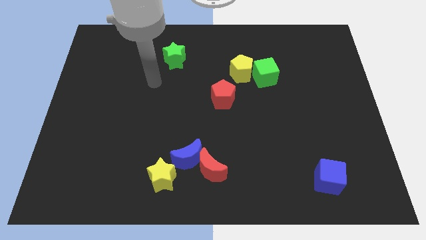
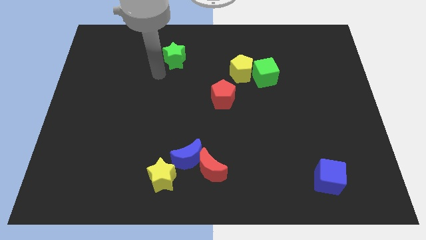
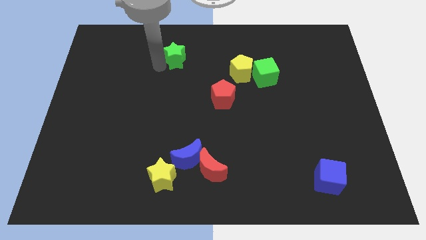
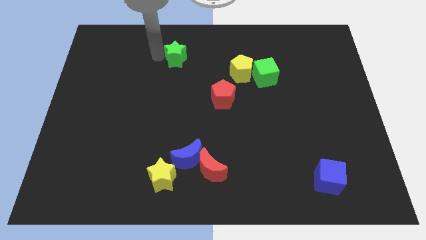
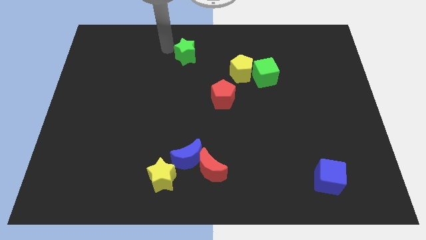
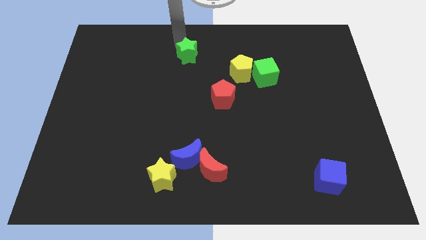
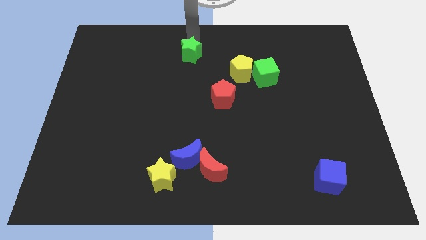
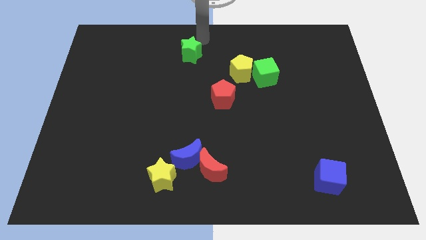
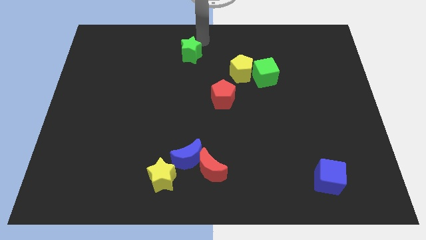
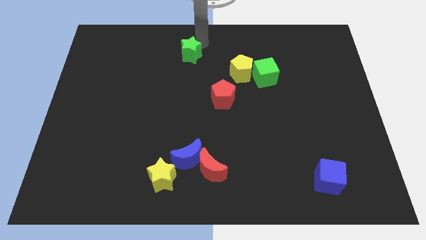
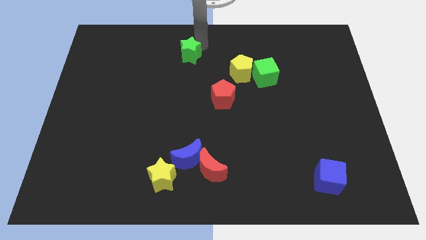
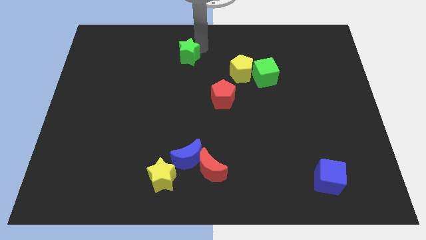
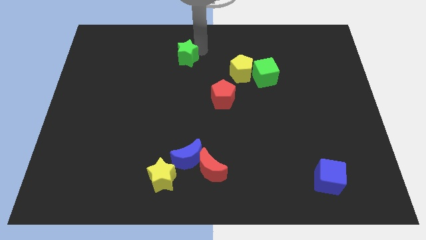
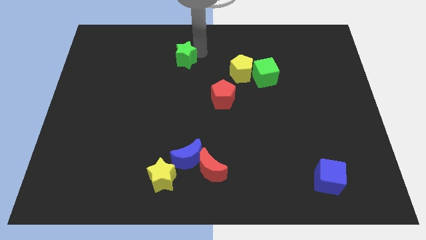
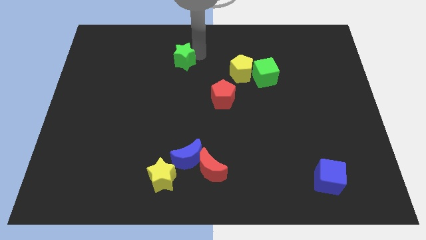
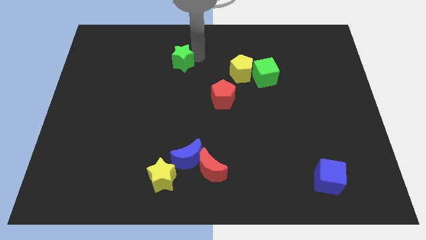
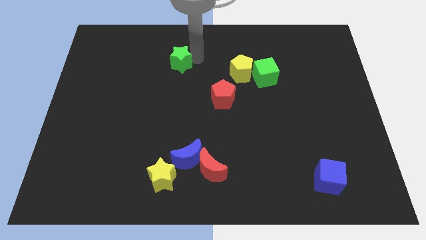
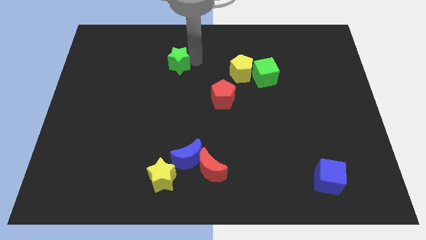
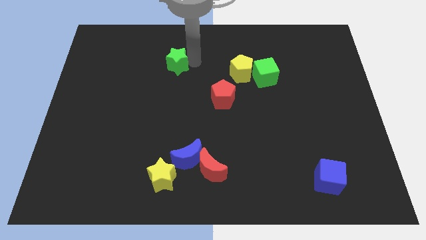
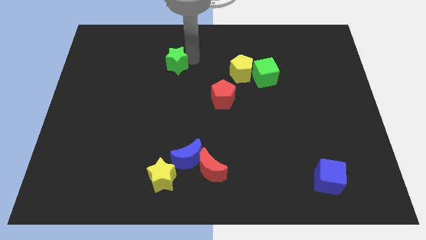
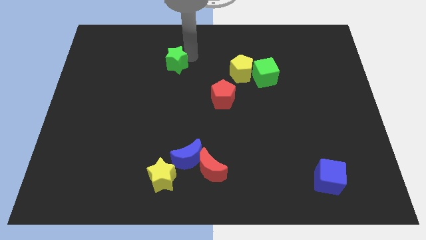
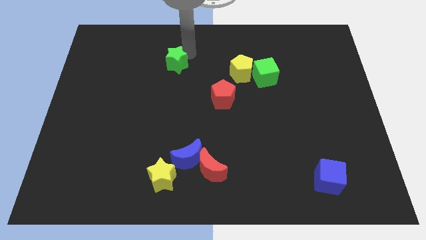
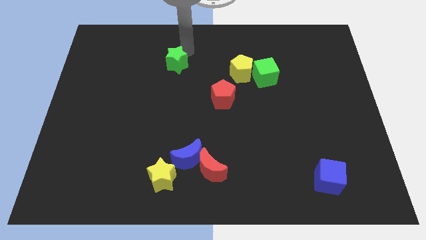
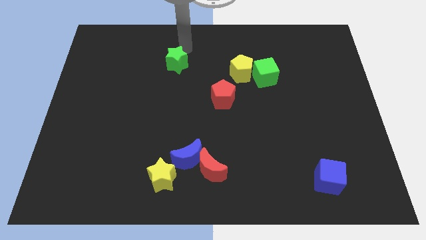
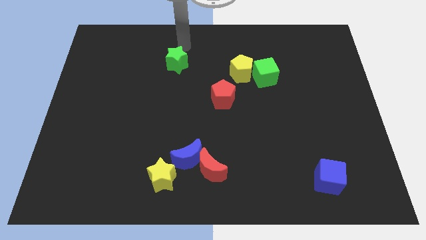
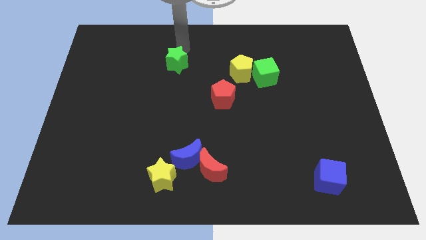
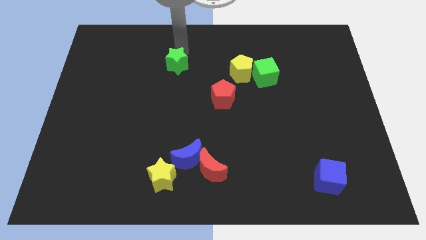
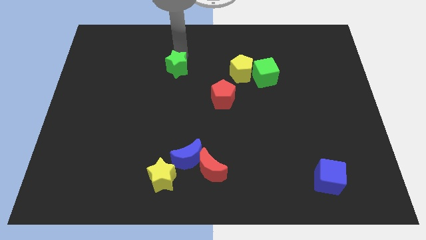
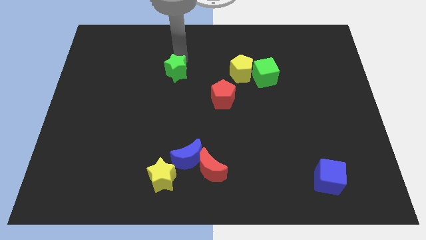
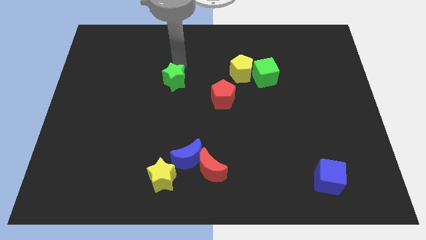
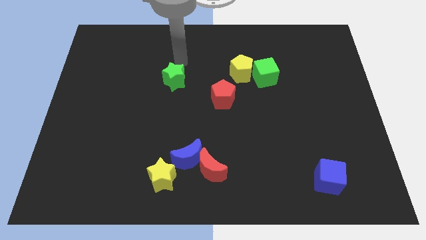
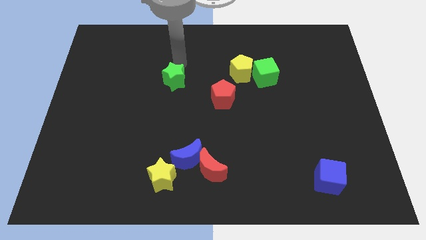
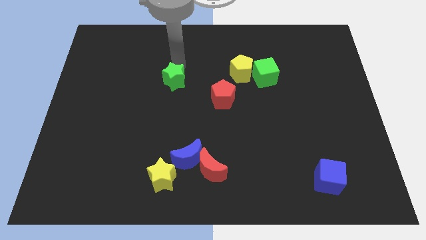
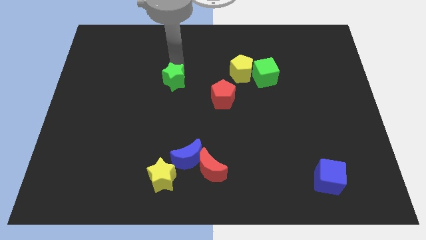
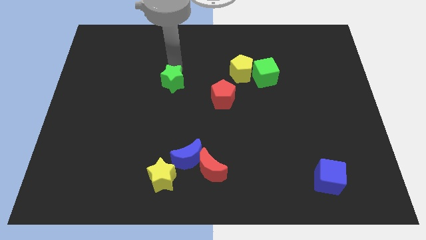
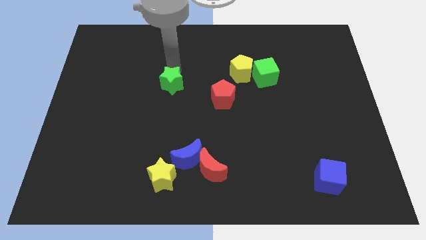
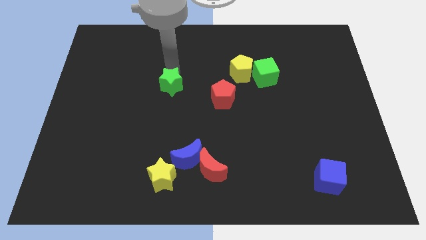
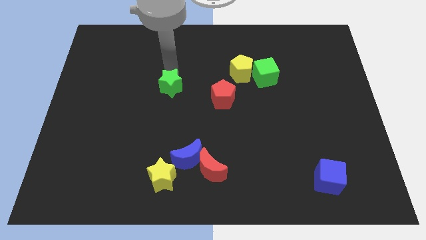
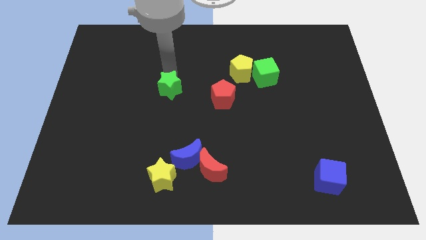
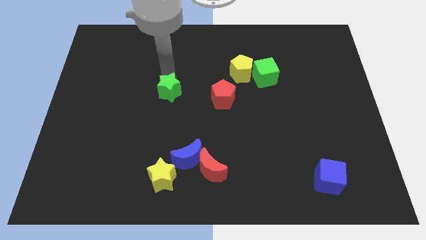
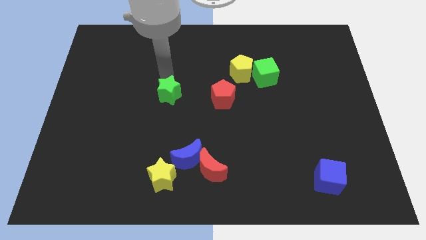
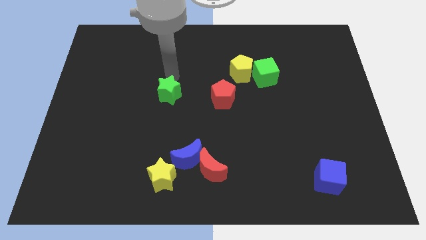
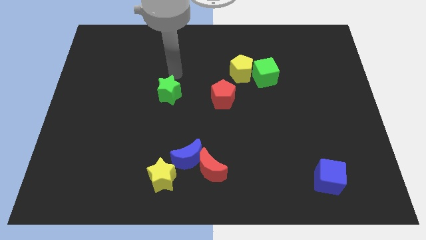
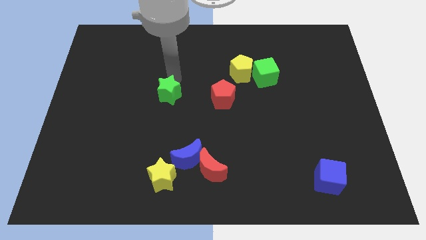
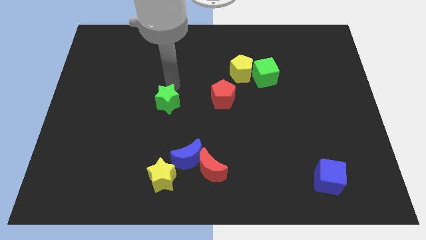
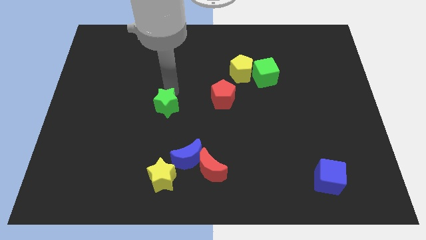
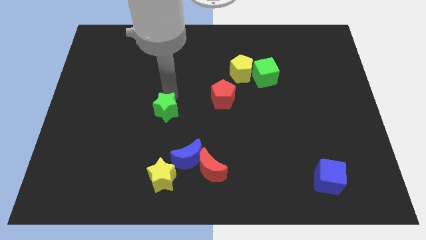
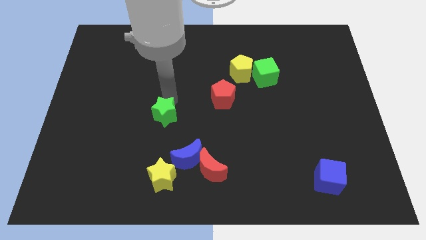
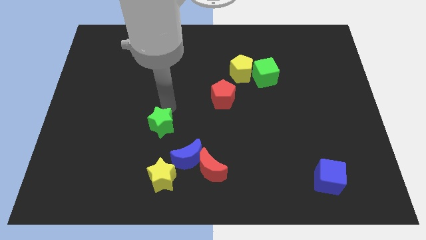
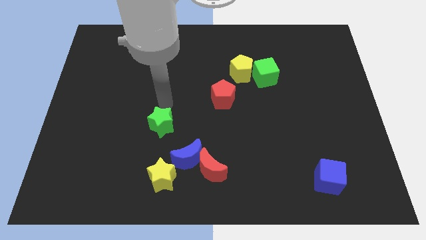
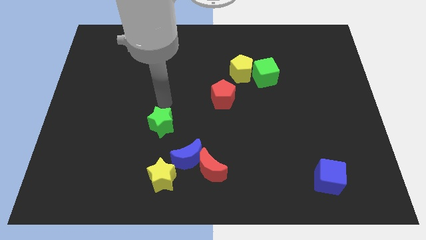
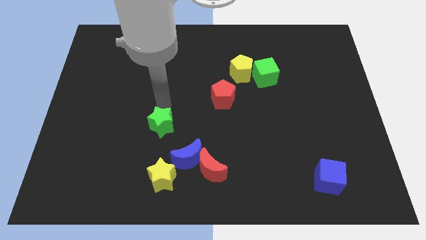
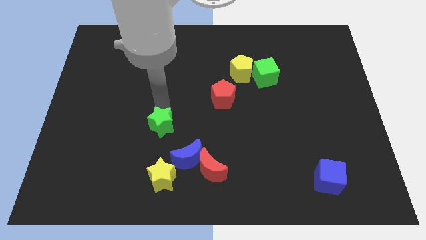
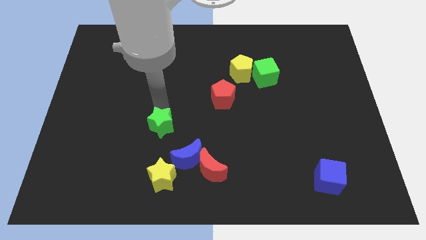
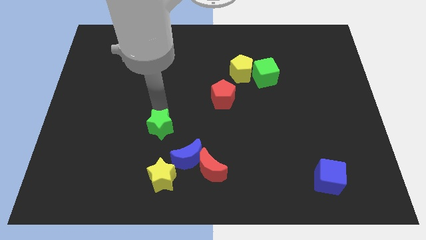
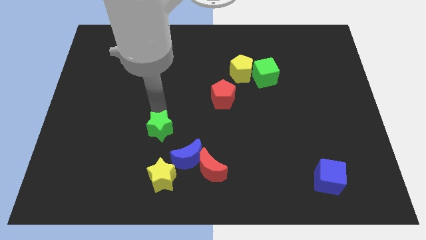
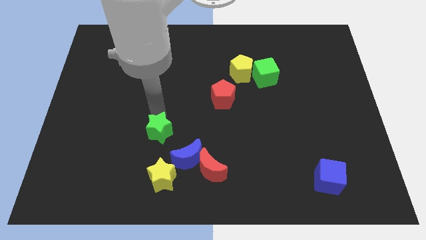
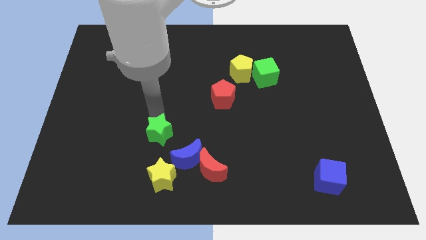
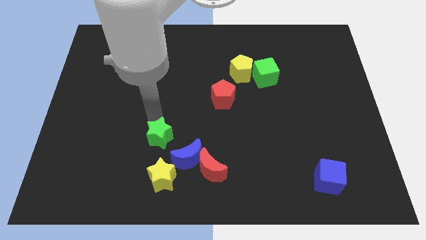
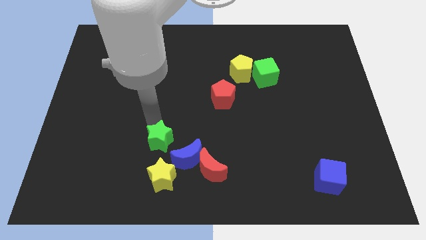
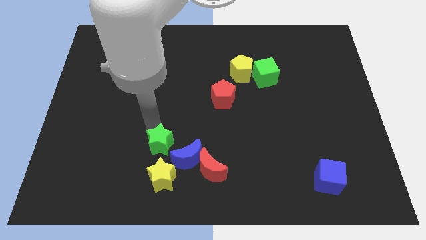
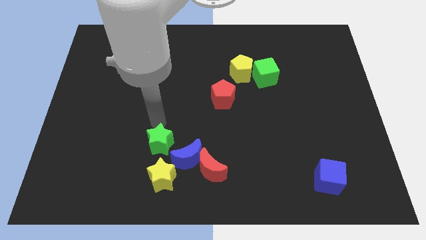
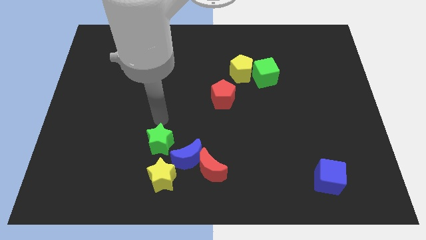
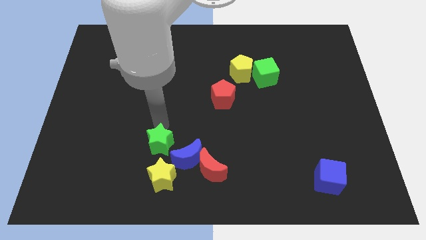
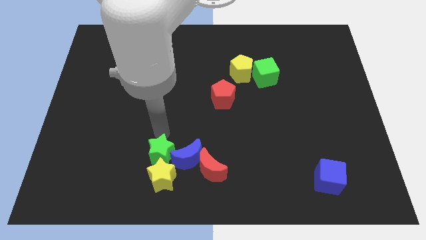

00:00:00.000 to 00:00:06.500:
push the green star to the yellow star

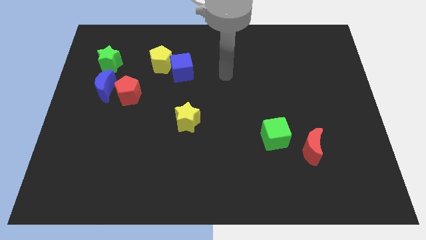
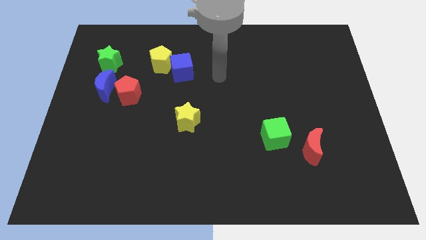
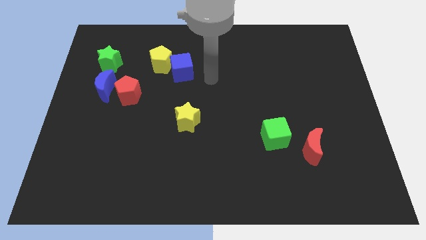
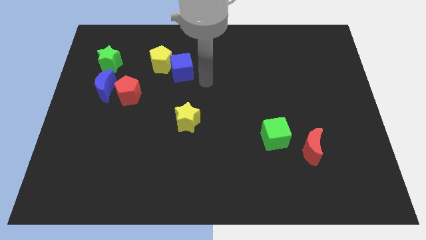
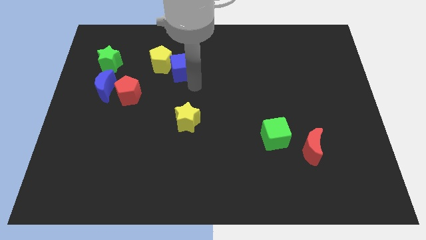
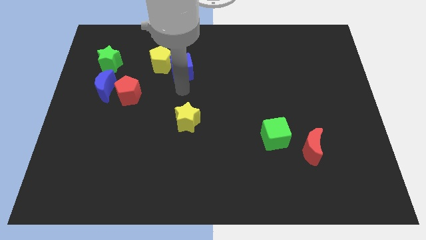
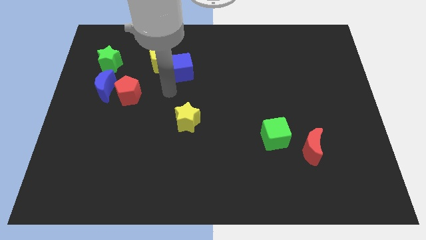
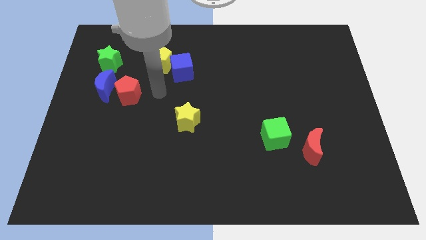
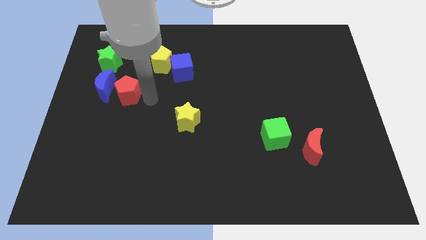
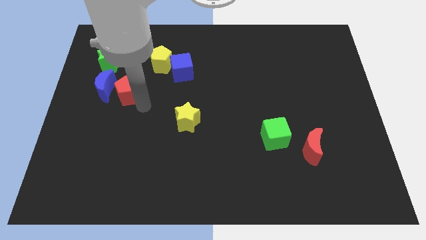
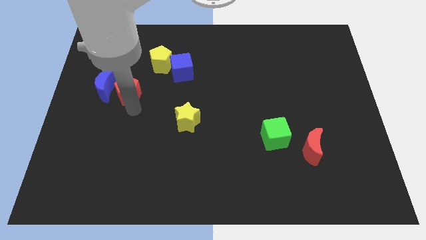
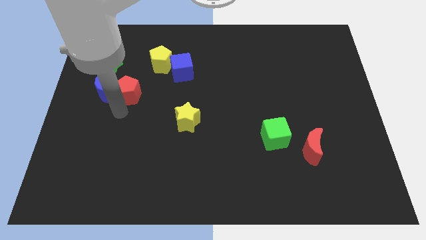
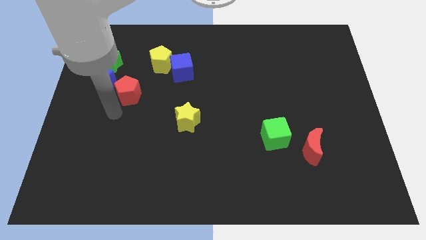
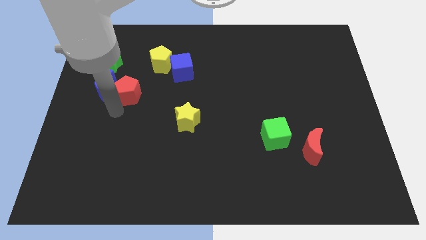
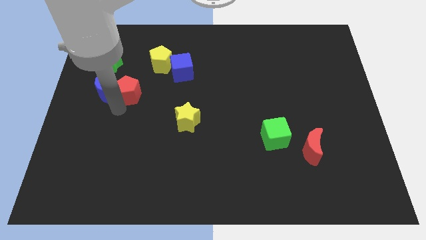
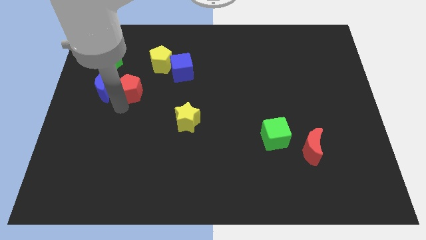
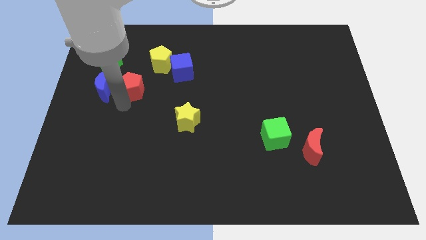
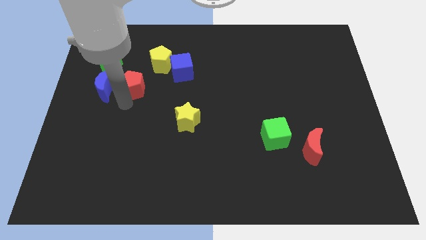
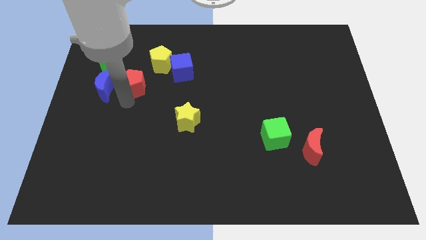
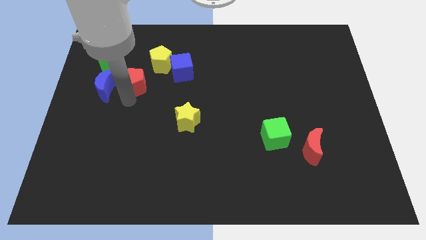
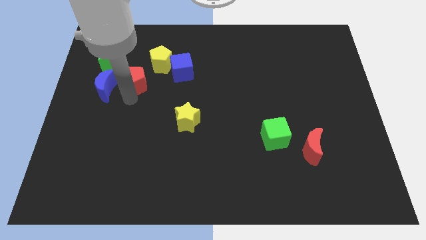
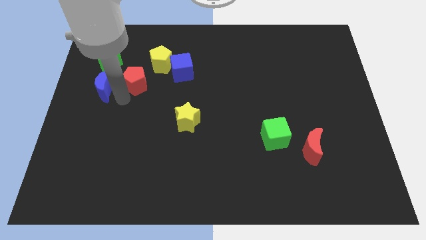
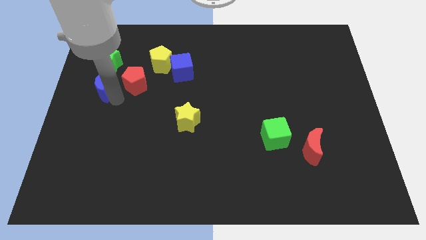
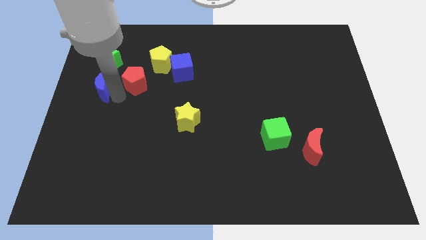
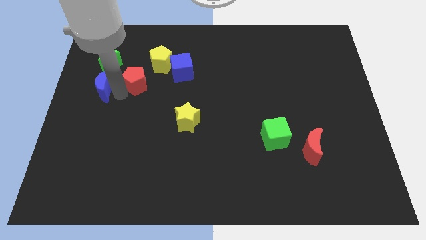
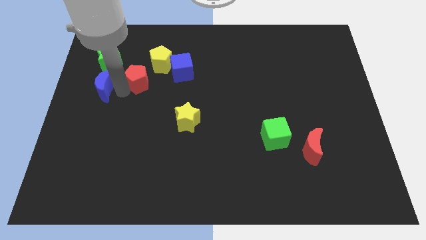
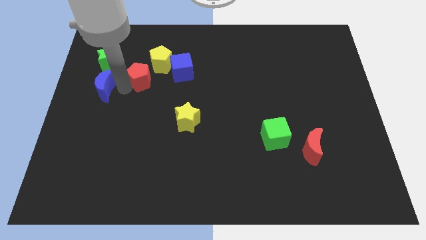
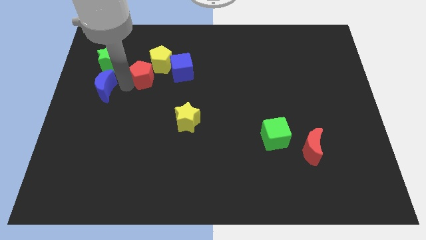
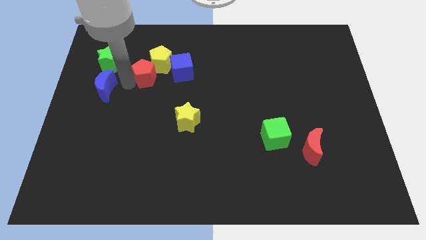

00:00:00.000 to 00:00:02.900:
push the red pentagon towards the yellow pentagon
